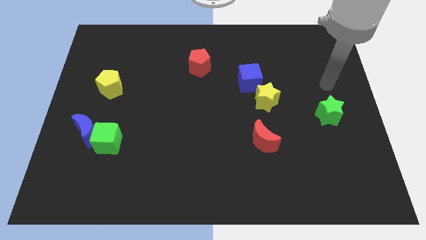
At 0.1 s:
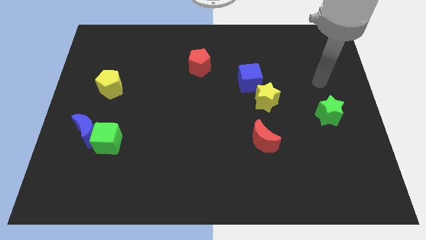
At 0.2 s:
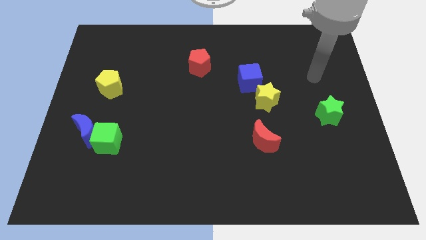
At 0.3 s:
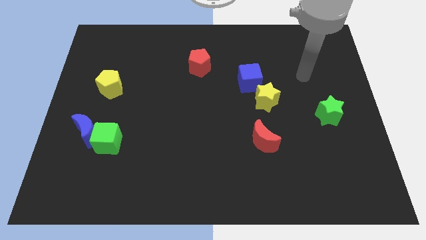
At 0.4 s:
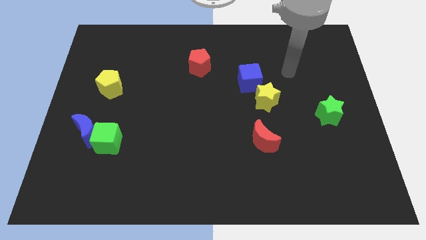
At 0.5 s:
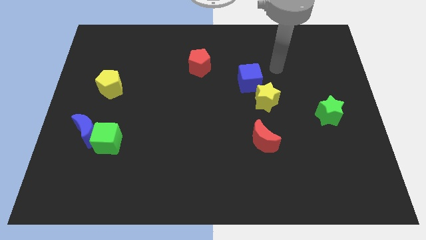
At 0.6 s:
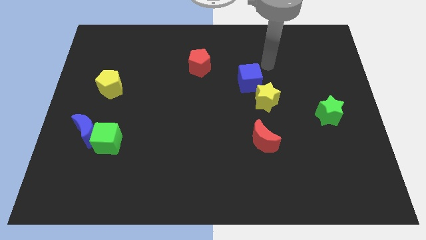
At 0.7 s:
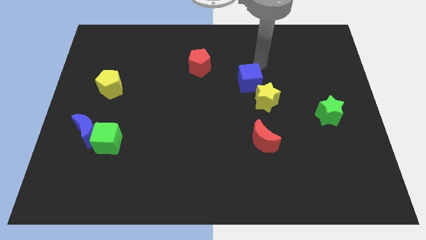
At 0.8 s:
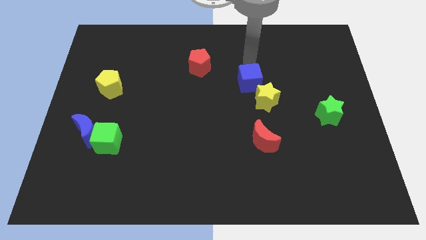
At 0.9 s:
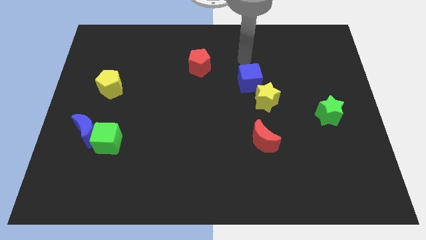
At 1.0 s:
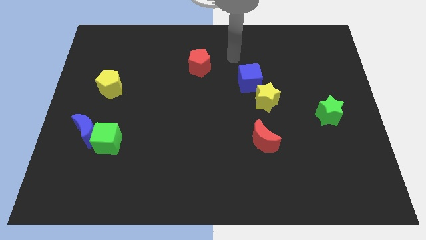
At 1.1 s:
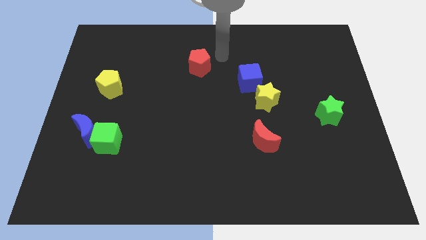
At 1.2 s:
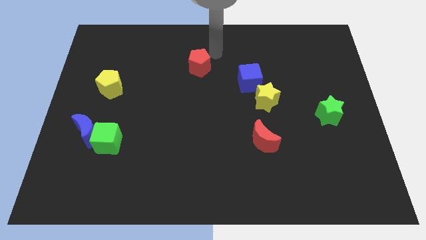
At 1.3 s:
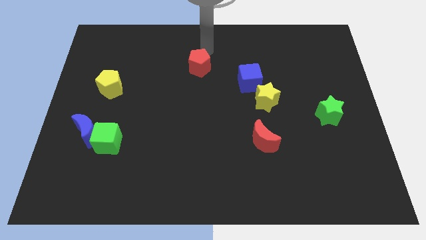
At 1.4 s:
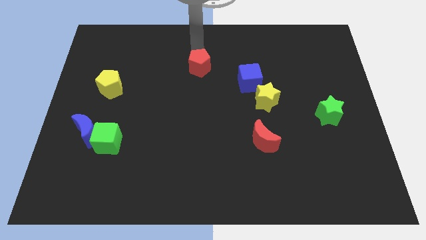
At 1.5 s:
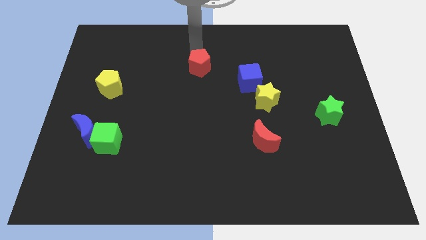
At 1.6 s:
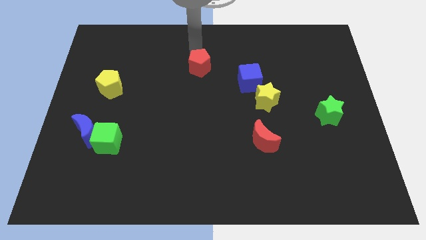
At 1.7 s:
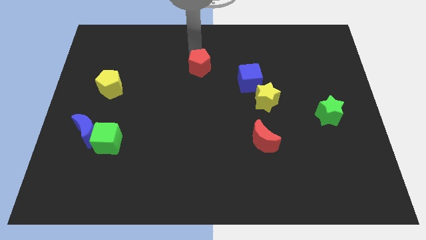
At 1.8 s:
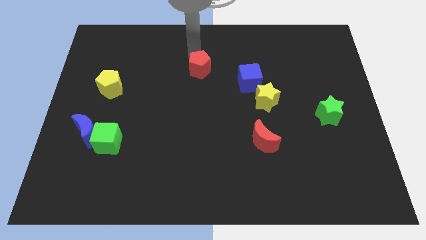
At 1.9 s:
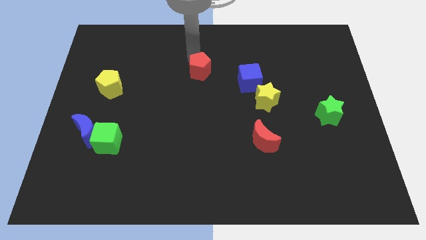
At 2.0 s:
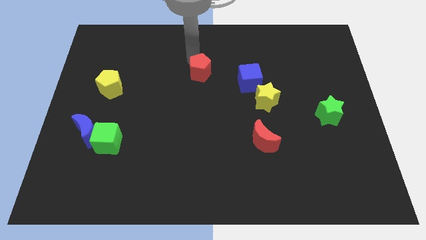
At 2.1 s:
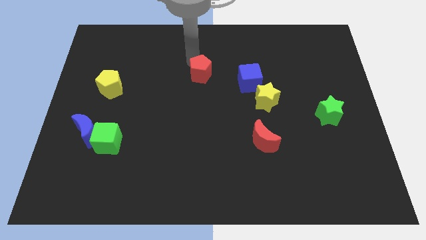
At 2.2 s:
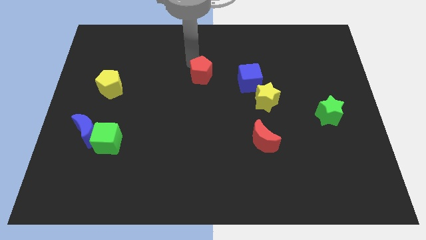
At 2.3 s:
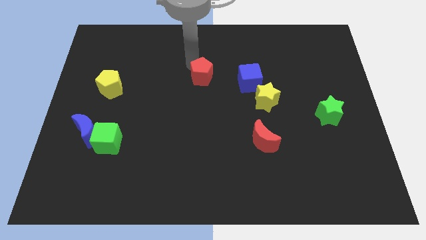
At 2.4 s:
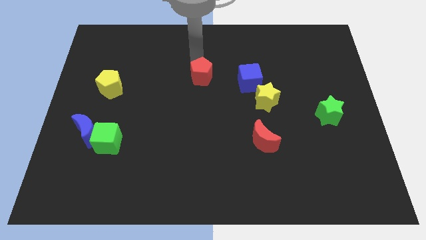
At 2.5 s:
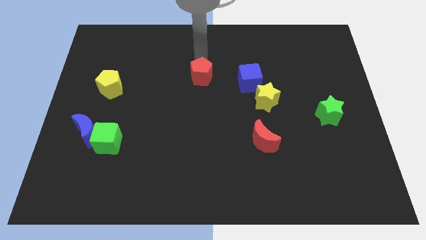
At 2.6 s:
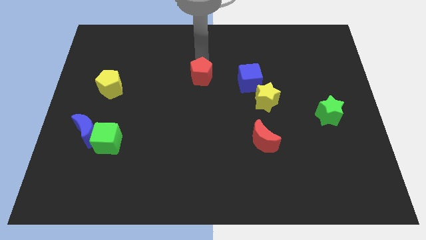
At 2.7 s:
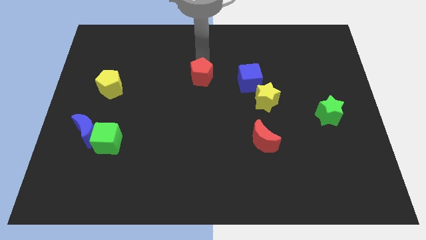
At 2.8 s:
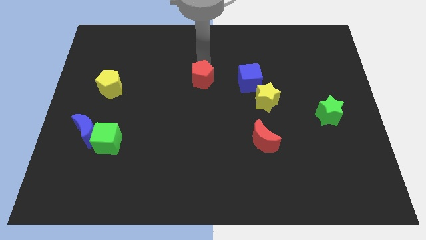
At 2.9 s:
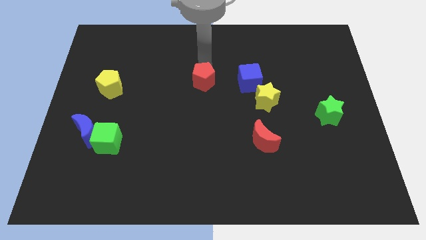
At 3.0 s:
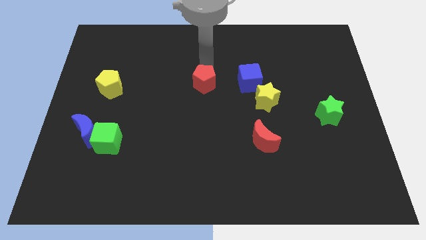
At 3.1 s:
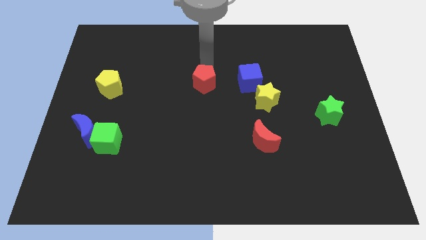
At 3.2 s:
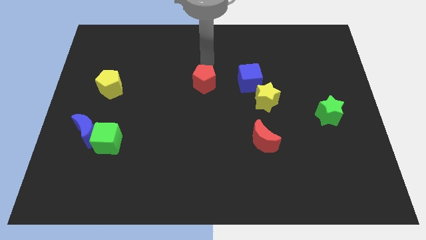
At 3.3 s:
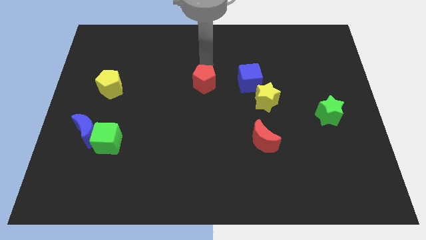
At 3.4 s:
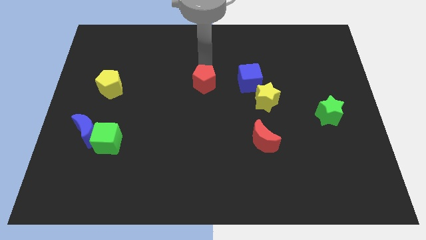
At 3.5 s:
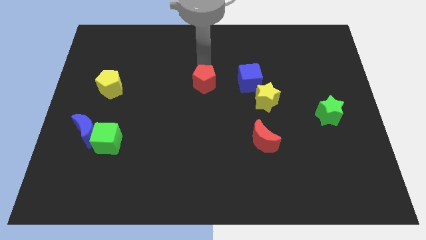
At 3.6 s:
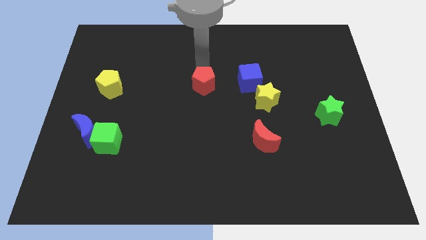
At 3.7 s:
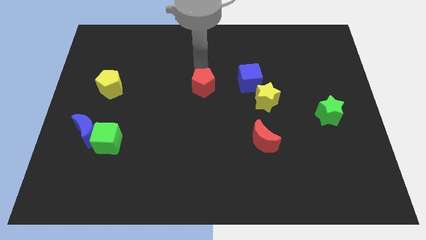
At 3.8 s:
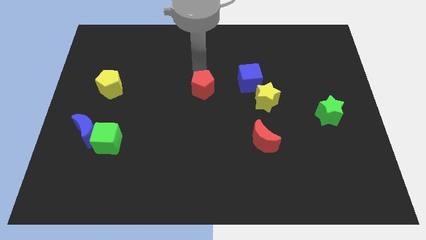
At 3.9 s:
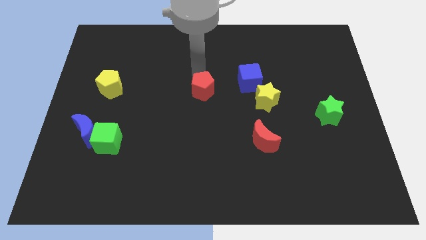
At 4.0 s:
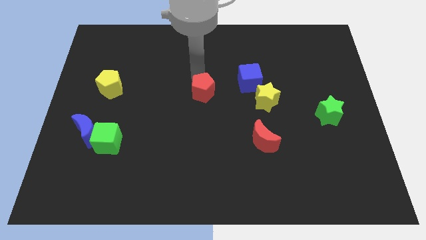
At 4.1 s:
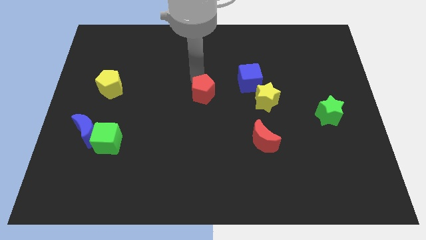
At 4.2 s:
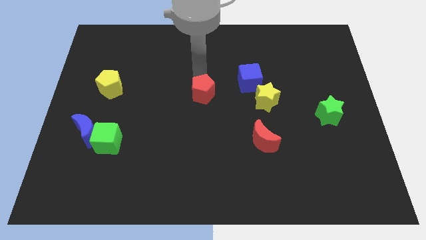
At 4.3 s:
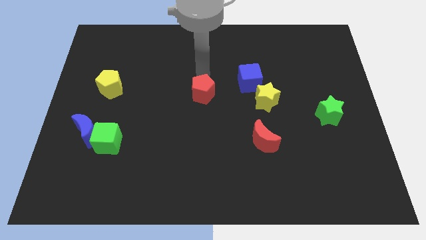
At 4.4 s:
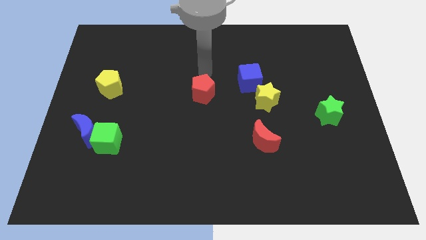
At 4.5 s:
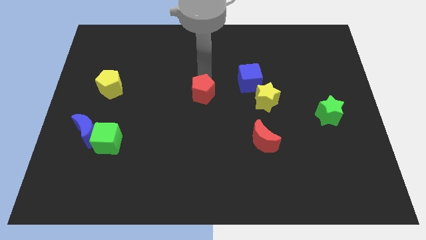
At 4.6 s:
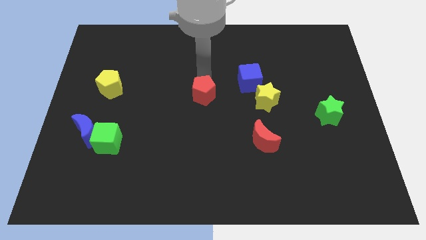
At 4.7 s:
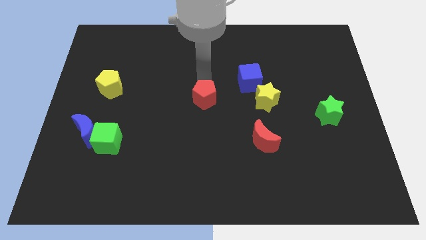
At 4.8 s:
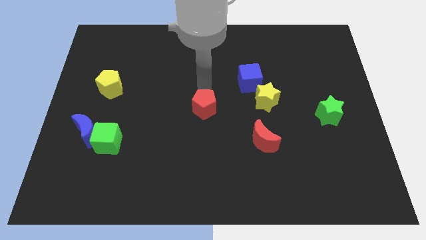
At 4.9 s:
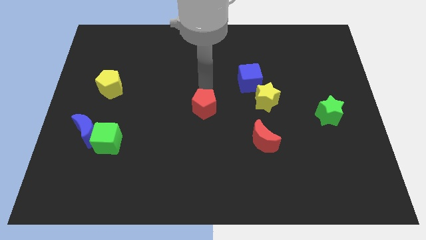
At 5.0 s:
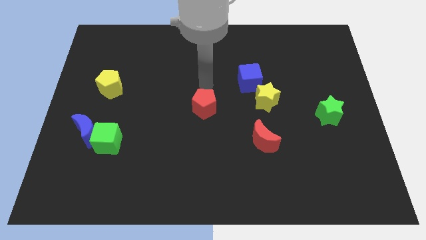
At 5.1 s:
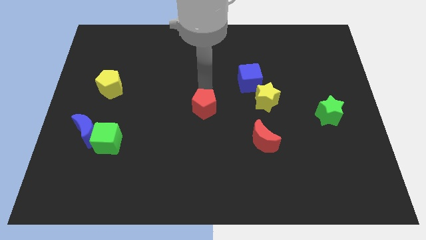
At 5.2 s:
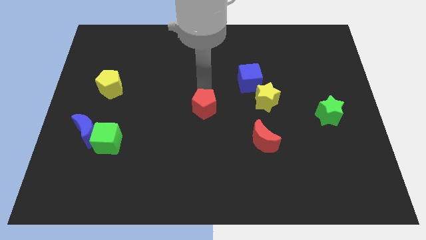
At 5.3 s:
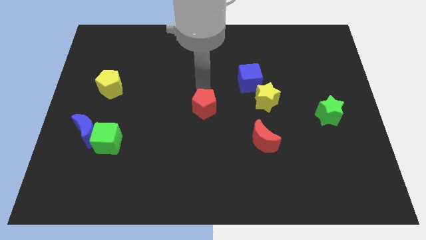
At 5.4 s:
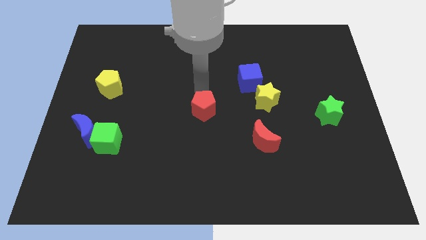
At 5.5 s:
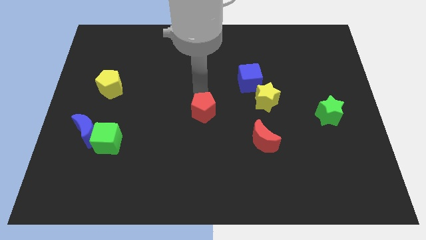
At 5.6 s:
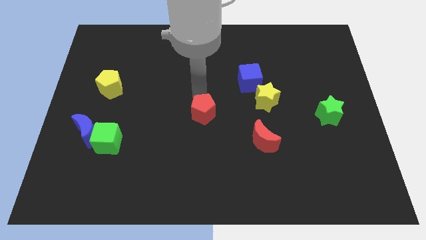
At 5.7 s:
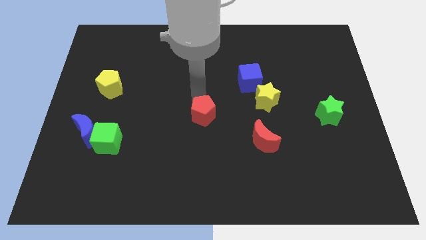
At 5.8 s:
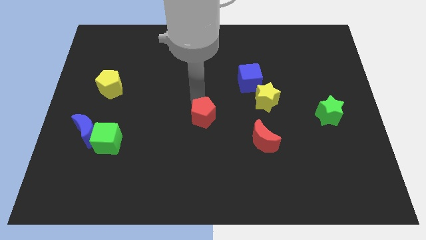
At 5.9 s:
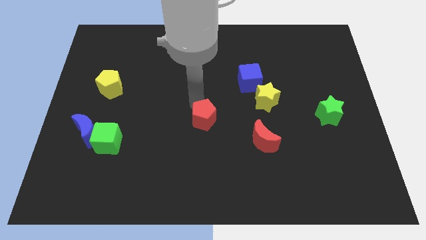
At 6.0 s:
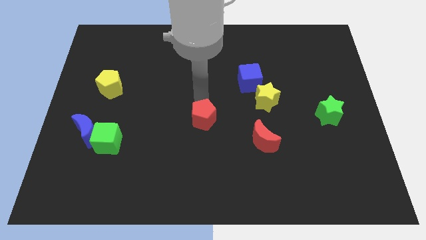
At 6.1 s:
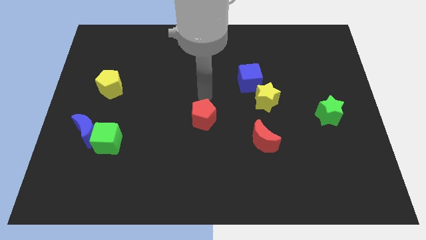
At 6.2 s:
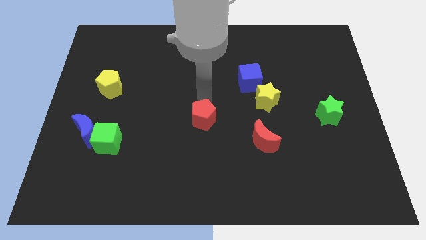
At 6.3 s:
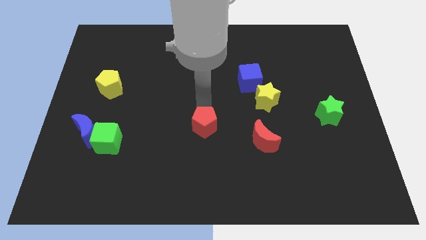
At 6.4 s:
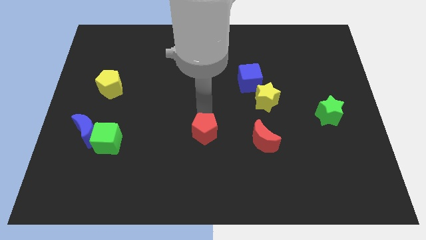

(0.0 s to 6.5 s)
slide the red pentagon downwards

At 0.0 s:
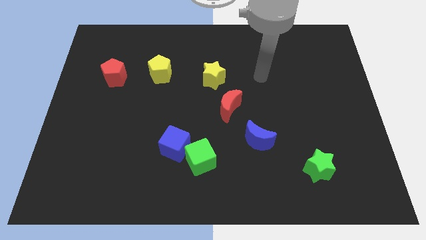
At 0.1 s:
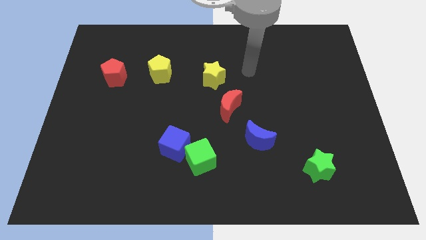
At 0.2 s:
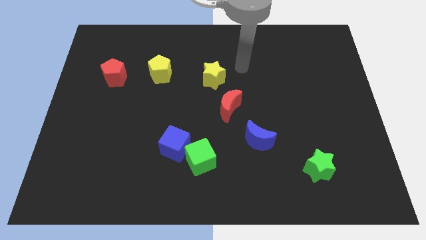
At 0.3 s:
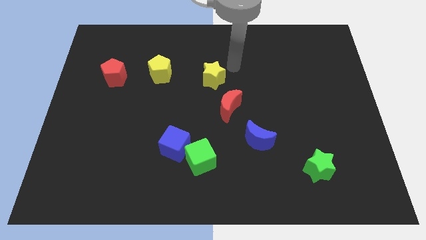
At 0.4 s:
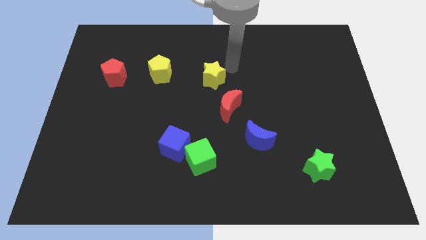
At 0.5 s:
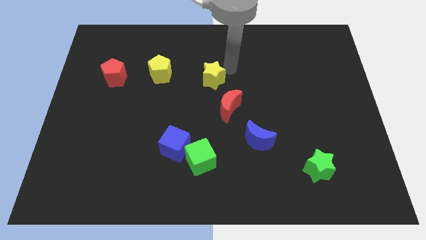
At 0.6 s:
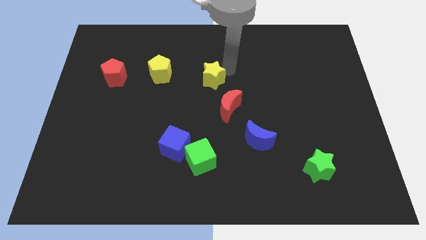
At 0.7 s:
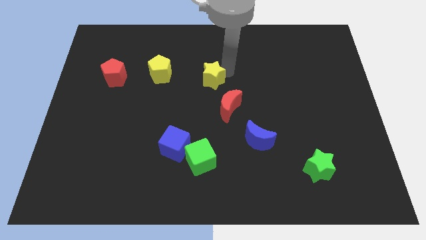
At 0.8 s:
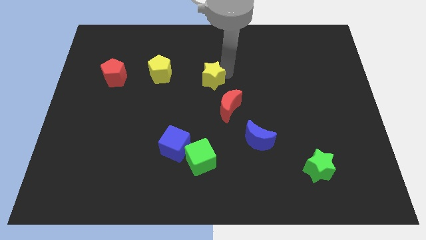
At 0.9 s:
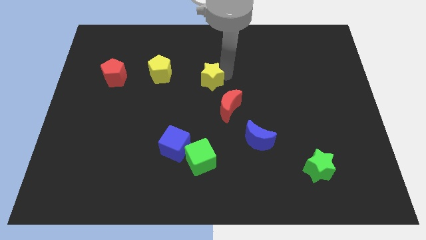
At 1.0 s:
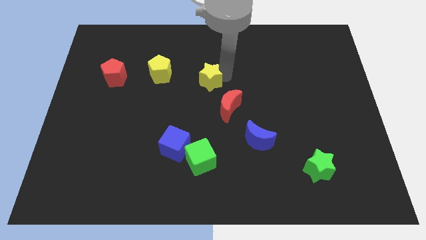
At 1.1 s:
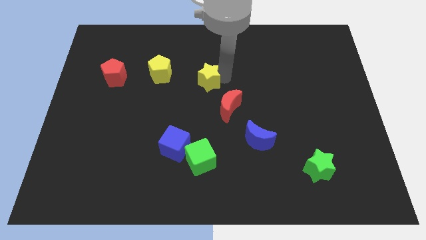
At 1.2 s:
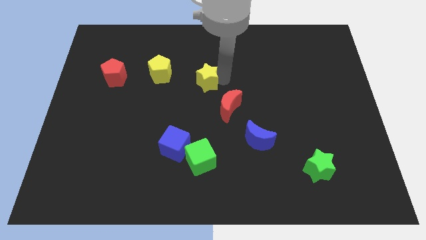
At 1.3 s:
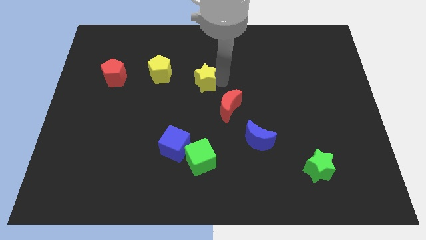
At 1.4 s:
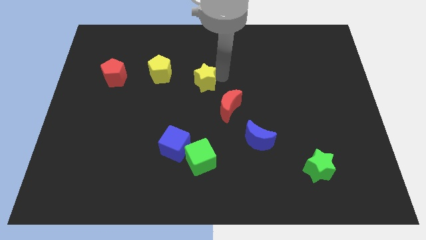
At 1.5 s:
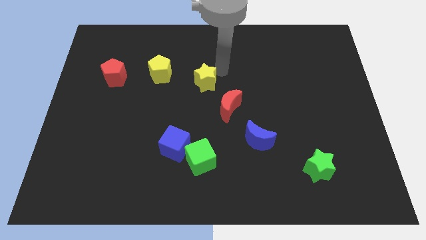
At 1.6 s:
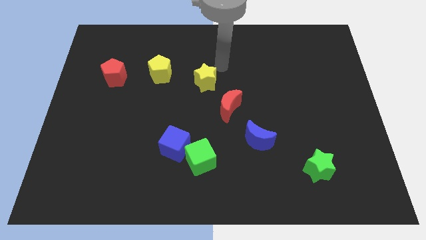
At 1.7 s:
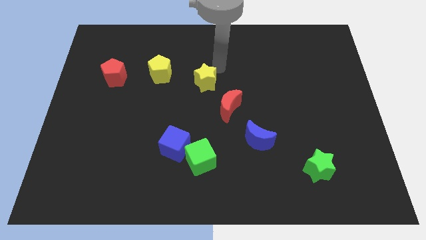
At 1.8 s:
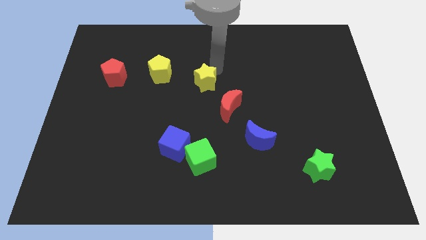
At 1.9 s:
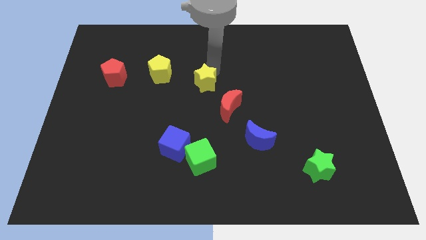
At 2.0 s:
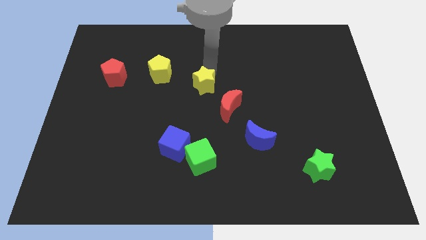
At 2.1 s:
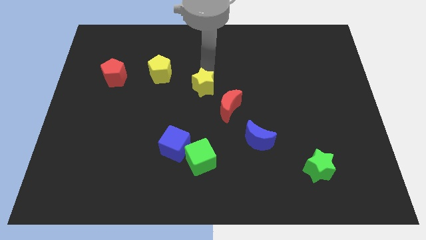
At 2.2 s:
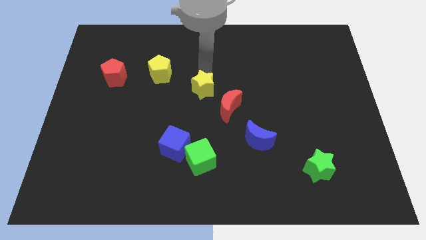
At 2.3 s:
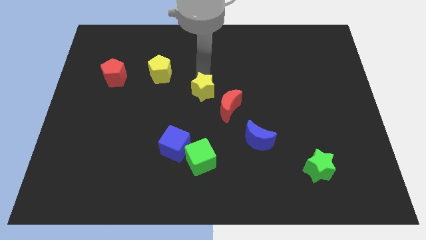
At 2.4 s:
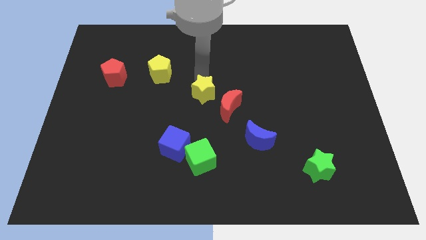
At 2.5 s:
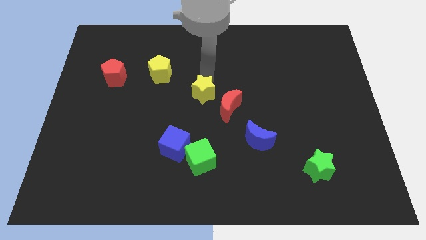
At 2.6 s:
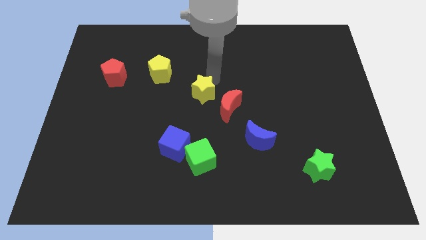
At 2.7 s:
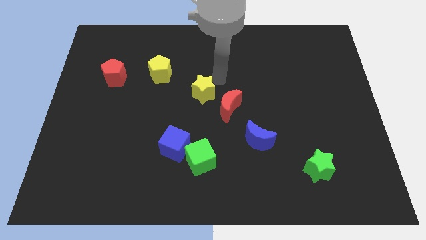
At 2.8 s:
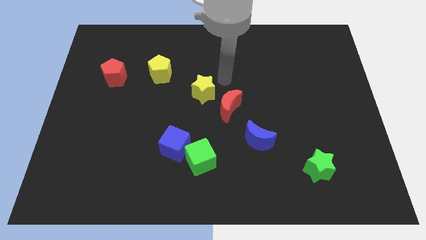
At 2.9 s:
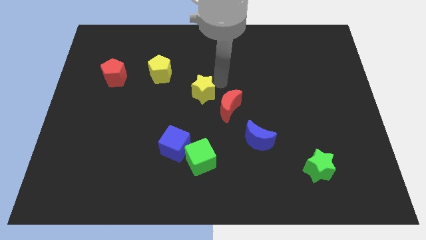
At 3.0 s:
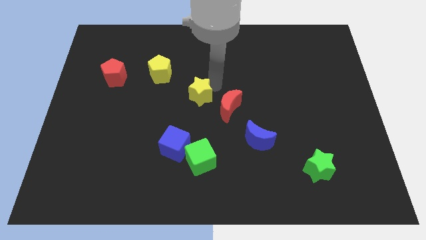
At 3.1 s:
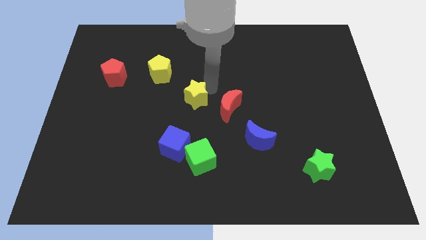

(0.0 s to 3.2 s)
slightly push the yellow star downwards and then to the left
